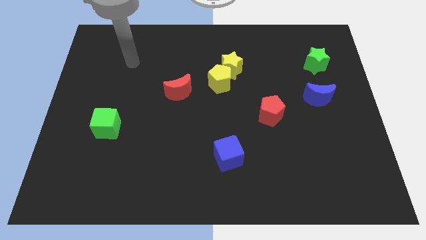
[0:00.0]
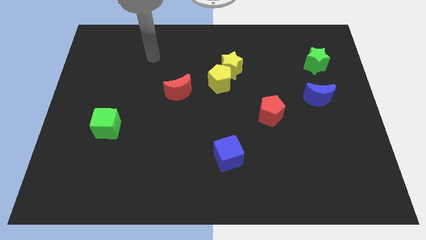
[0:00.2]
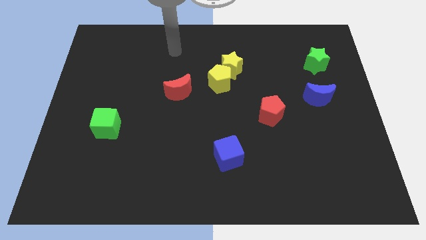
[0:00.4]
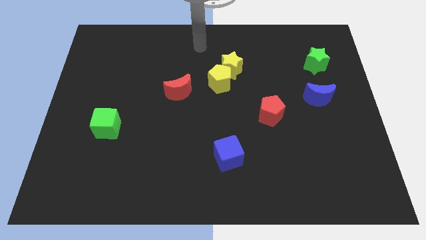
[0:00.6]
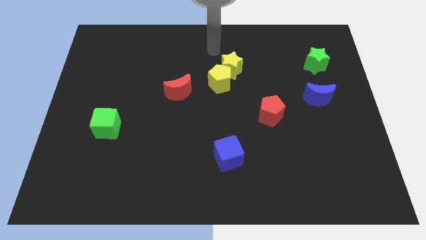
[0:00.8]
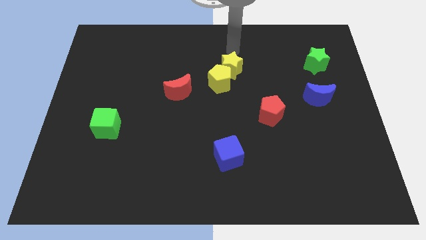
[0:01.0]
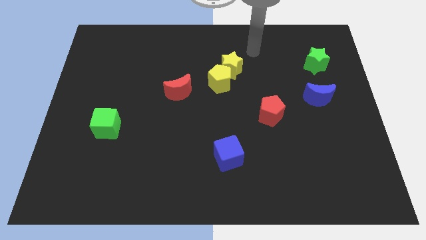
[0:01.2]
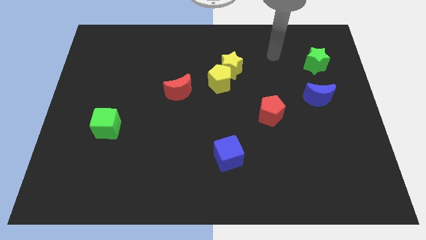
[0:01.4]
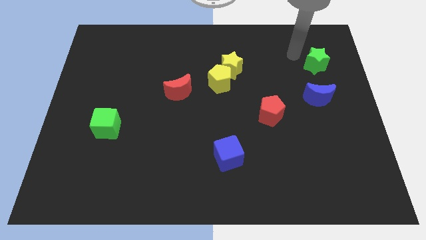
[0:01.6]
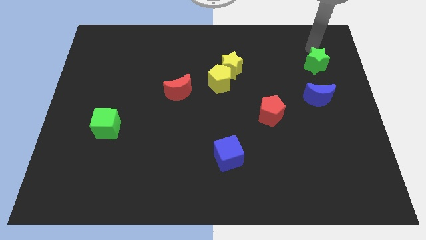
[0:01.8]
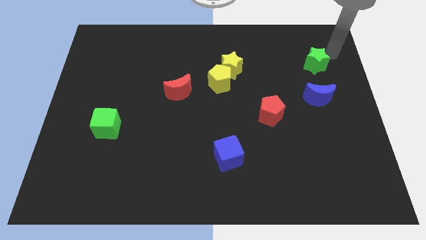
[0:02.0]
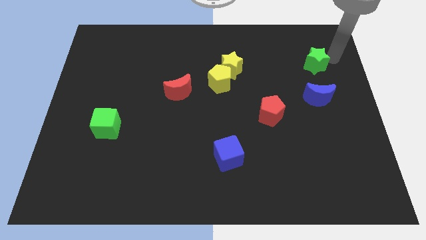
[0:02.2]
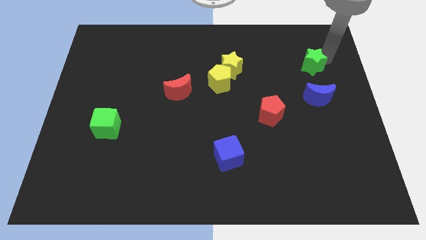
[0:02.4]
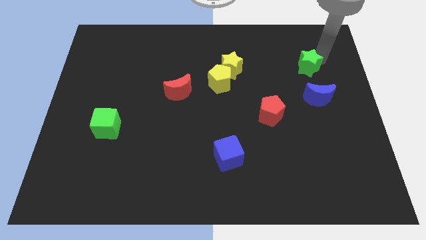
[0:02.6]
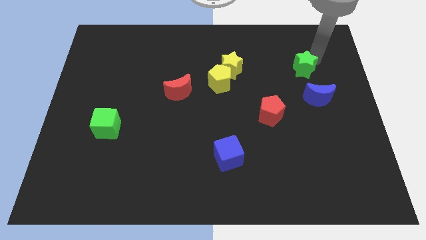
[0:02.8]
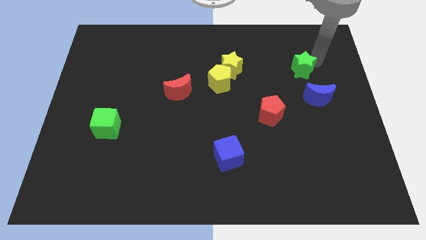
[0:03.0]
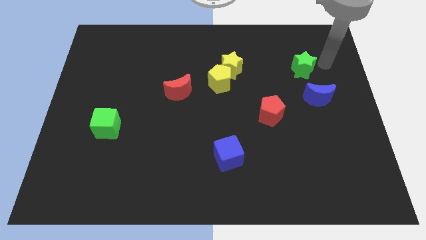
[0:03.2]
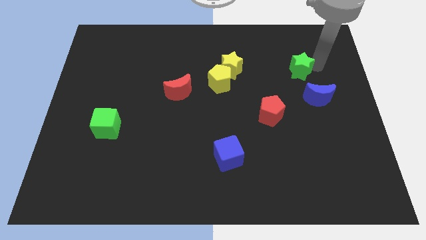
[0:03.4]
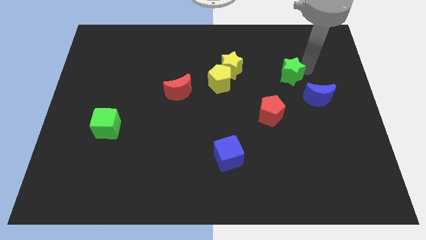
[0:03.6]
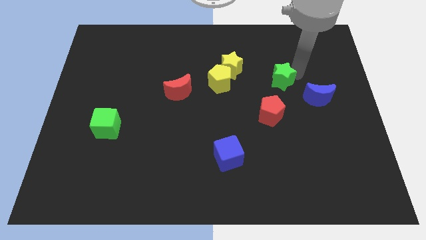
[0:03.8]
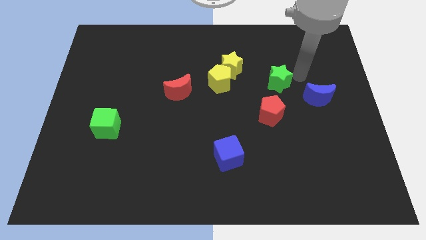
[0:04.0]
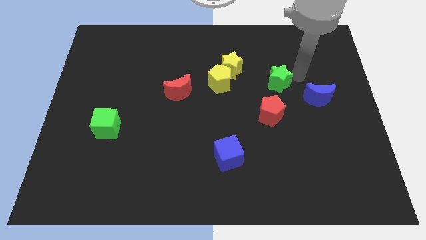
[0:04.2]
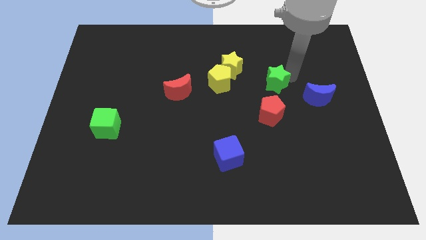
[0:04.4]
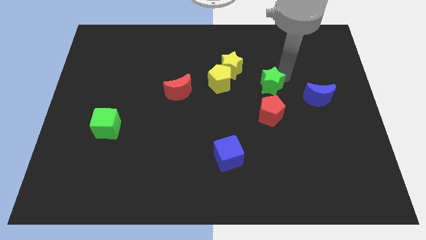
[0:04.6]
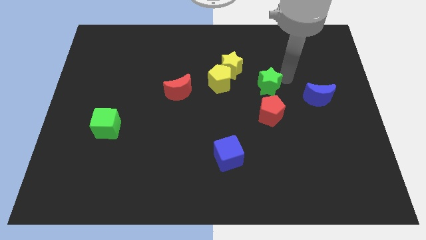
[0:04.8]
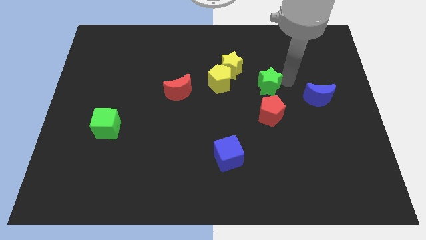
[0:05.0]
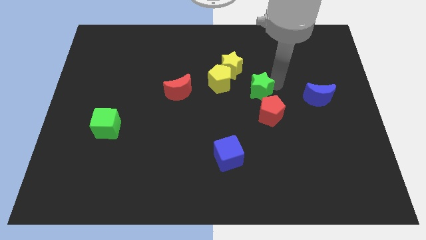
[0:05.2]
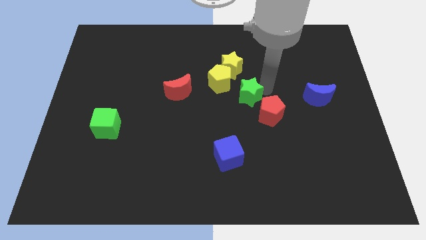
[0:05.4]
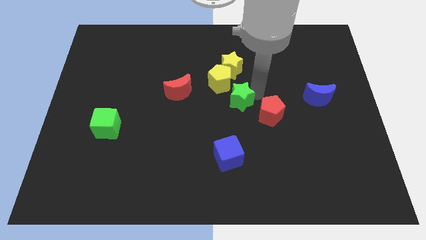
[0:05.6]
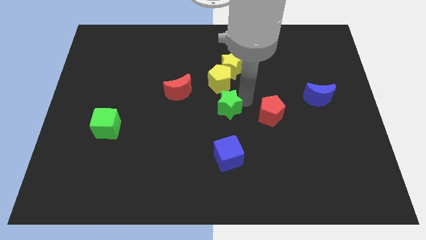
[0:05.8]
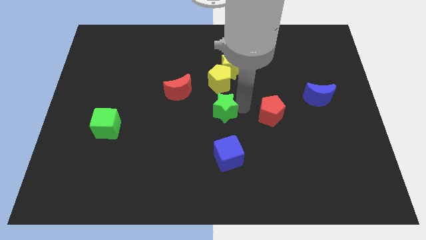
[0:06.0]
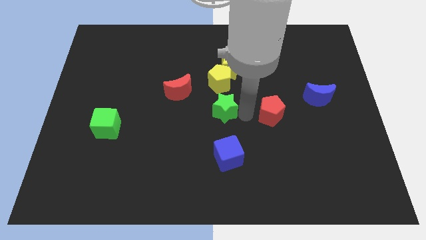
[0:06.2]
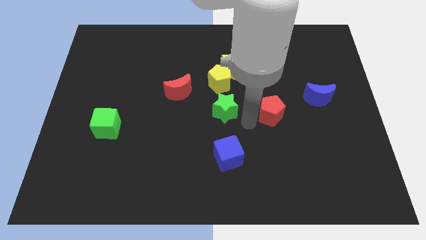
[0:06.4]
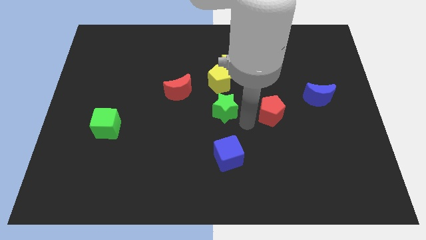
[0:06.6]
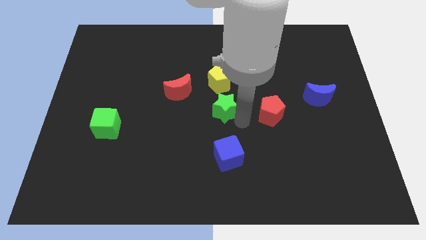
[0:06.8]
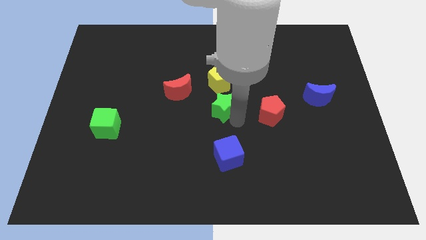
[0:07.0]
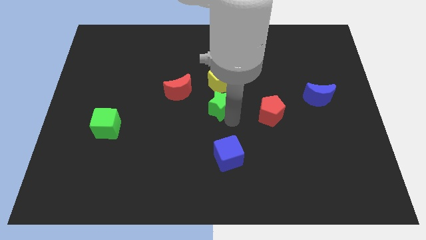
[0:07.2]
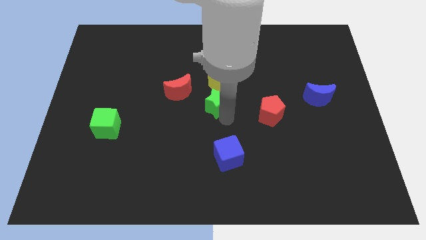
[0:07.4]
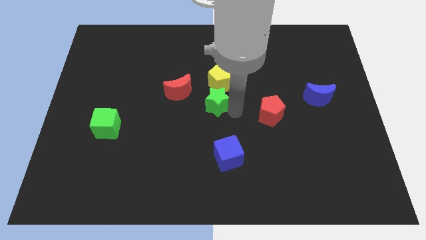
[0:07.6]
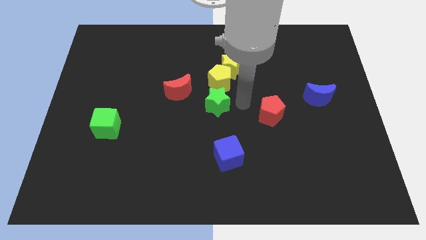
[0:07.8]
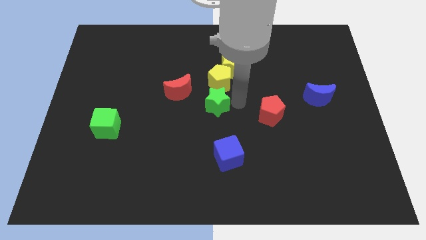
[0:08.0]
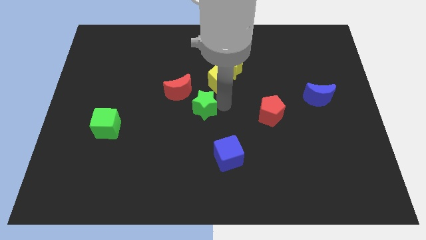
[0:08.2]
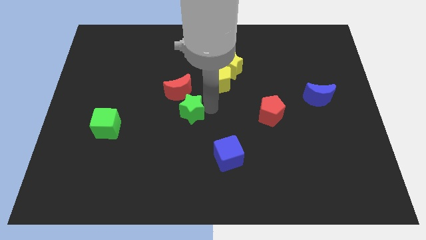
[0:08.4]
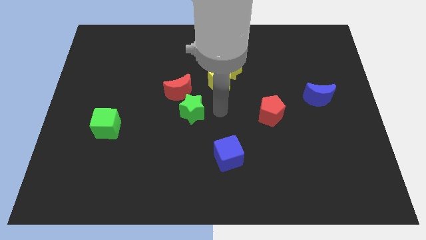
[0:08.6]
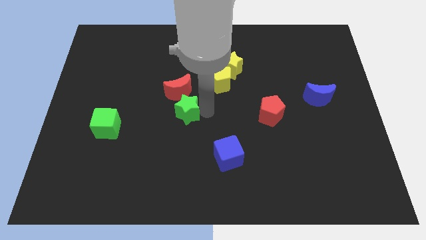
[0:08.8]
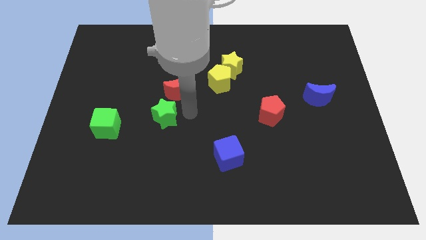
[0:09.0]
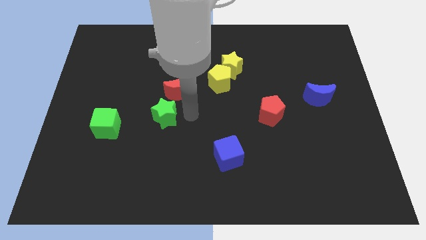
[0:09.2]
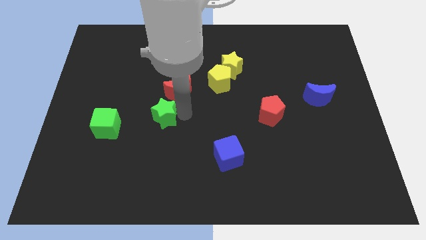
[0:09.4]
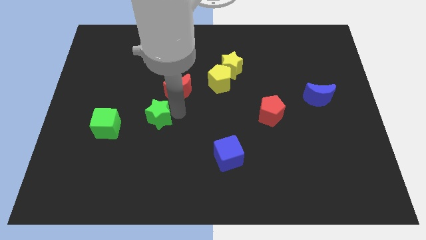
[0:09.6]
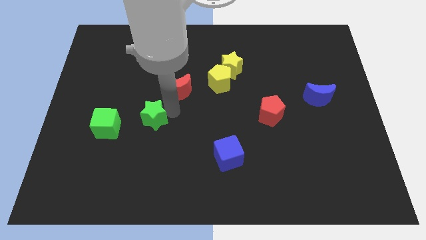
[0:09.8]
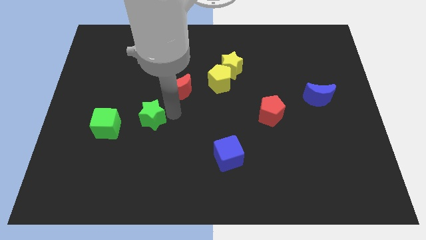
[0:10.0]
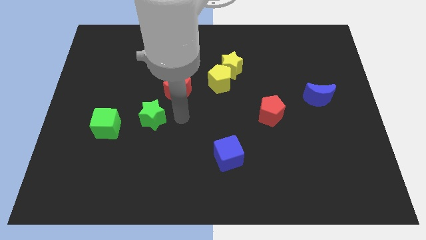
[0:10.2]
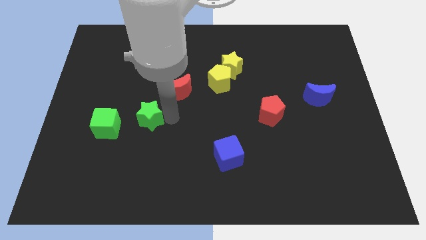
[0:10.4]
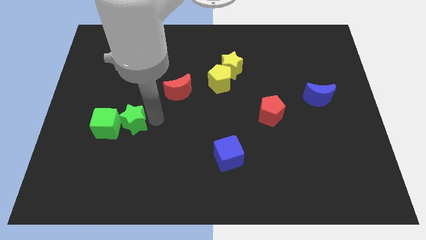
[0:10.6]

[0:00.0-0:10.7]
move the green star close to the green cube
